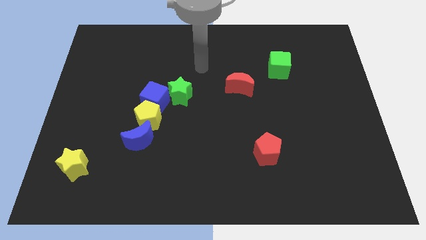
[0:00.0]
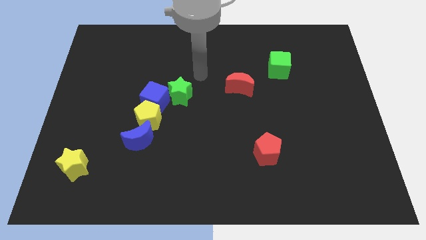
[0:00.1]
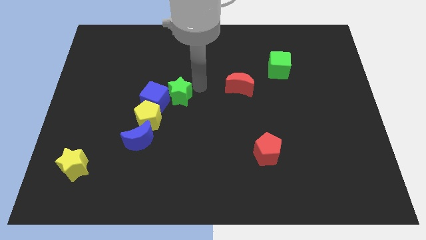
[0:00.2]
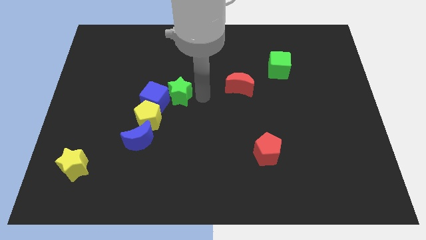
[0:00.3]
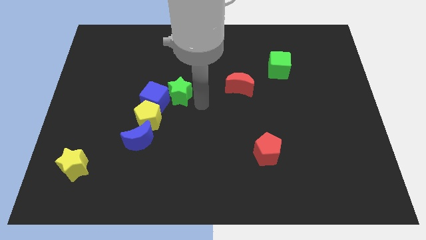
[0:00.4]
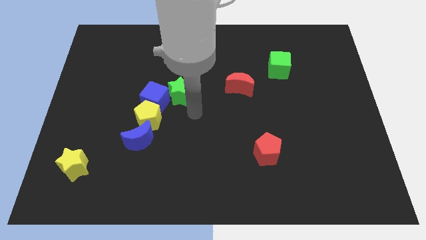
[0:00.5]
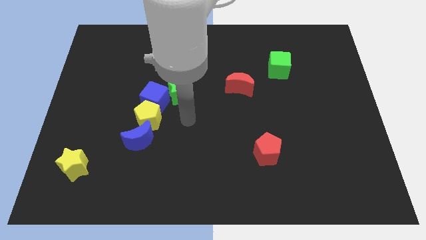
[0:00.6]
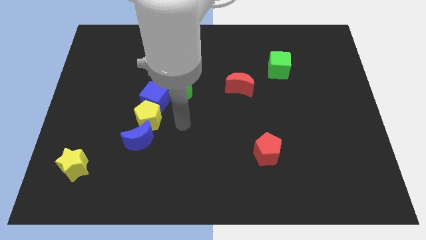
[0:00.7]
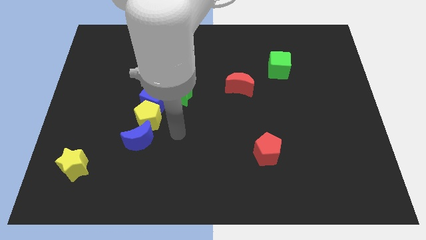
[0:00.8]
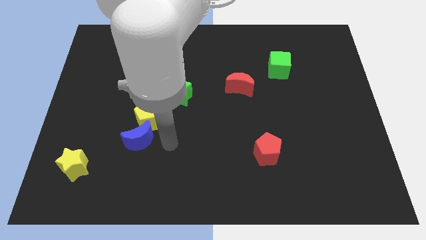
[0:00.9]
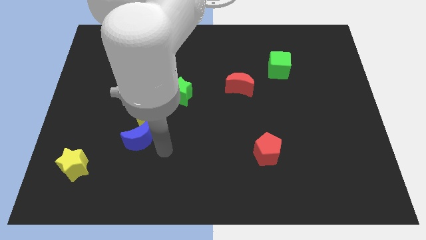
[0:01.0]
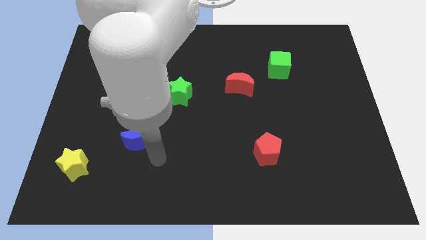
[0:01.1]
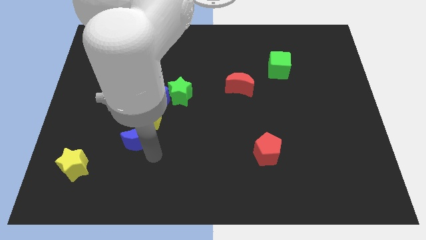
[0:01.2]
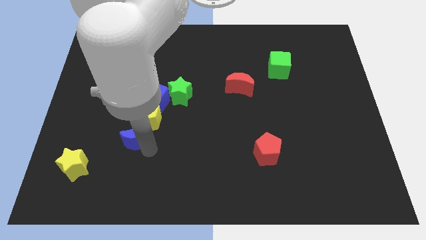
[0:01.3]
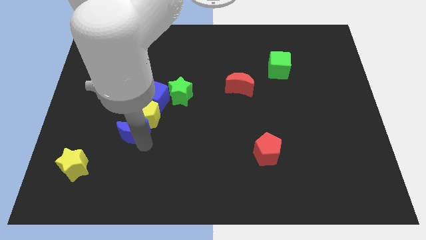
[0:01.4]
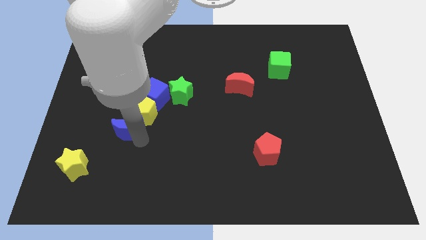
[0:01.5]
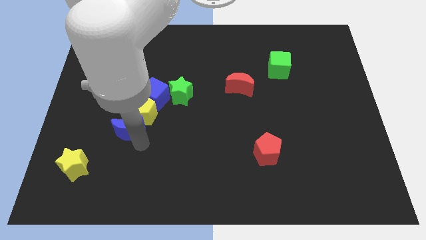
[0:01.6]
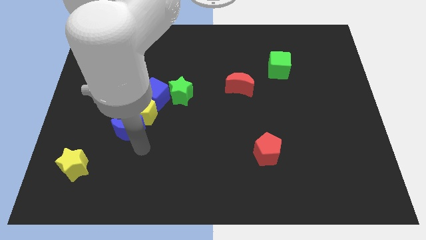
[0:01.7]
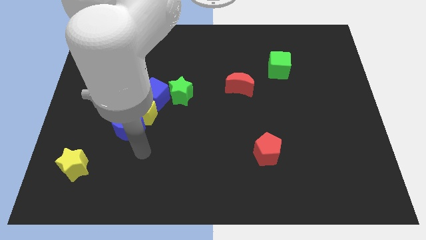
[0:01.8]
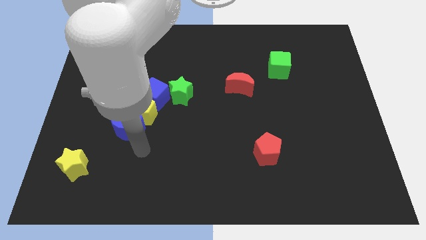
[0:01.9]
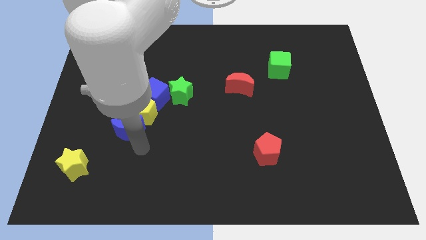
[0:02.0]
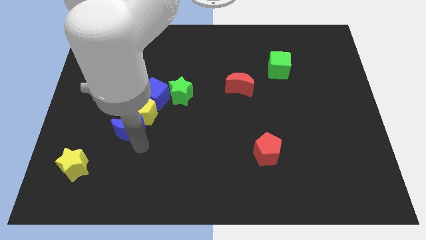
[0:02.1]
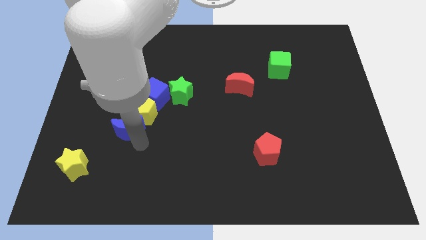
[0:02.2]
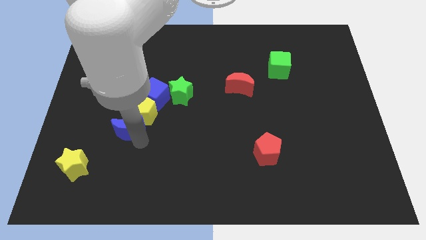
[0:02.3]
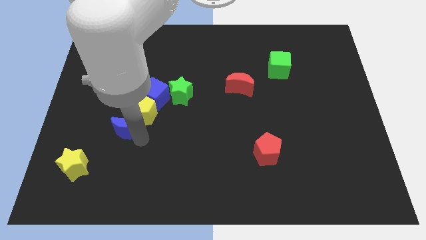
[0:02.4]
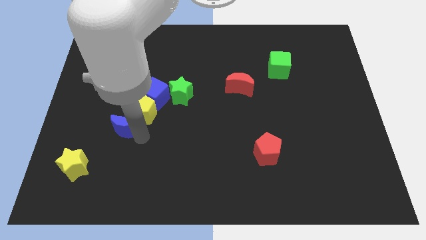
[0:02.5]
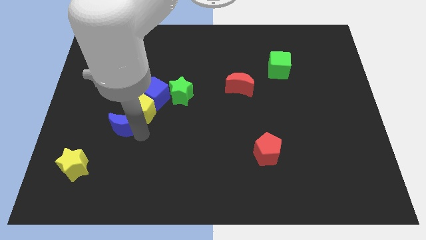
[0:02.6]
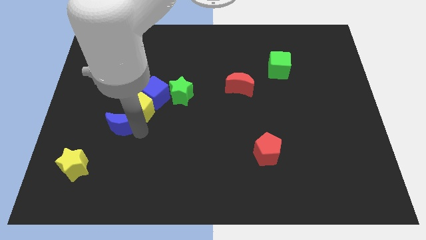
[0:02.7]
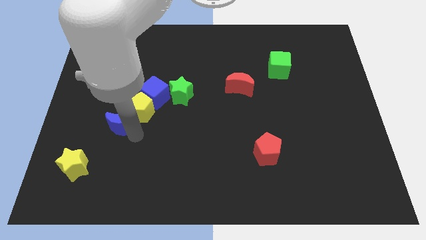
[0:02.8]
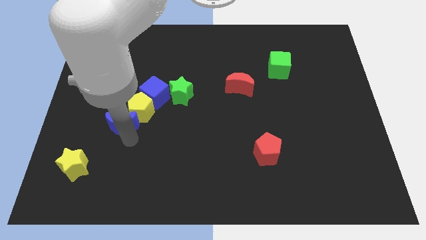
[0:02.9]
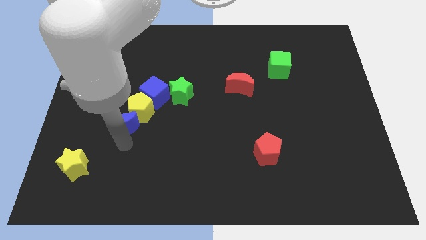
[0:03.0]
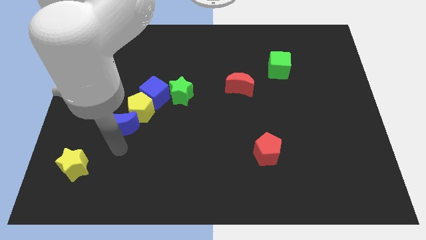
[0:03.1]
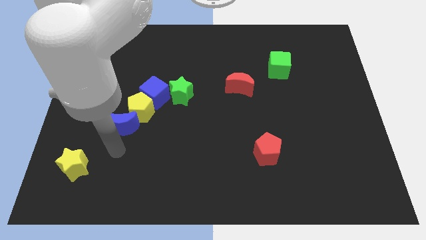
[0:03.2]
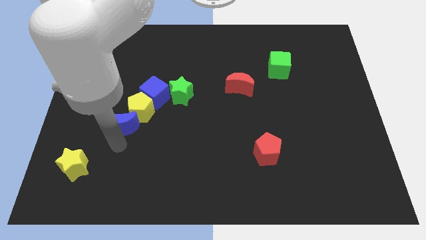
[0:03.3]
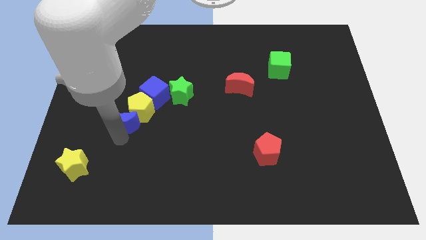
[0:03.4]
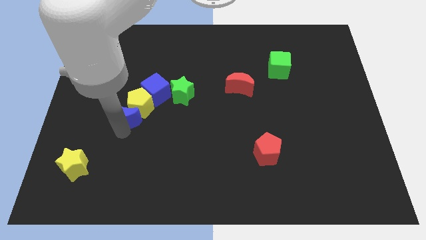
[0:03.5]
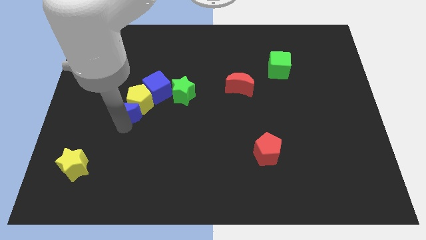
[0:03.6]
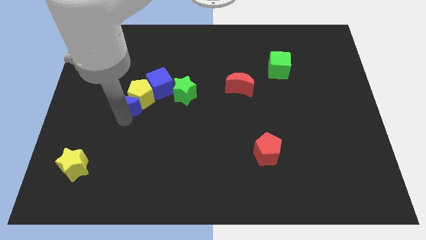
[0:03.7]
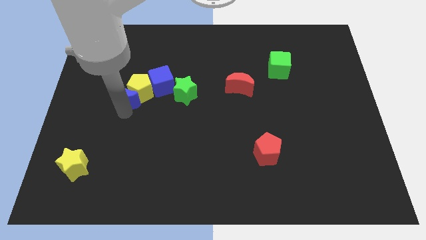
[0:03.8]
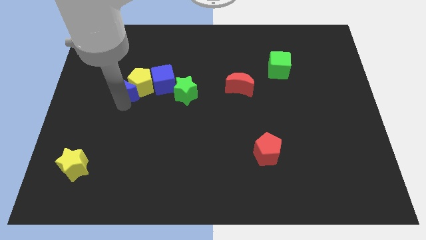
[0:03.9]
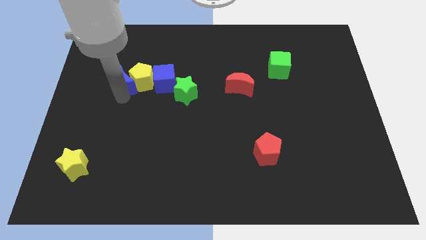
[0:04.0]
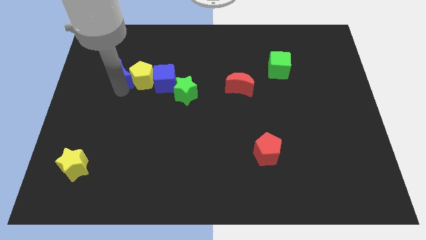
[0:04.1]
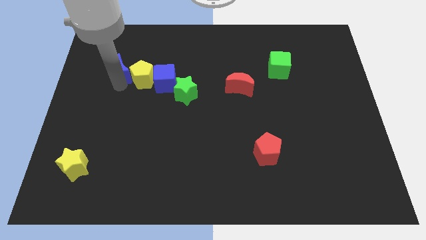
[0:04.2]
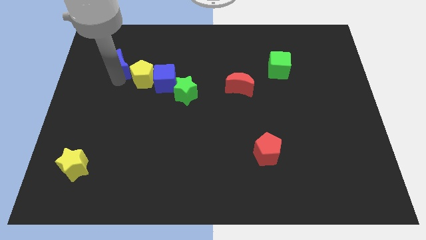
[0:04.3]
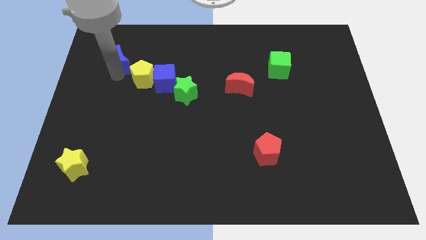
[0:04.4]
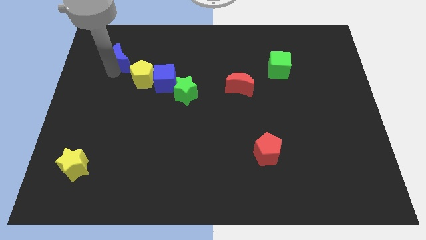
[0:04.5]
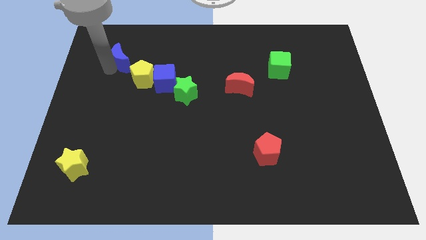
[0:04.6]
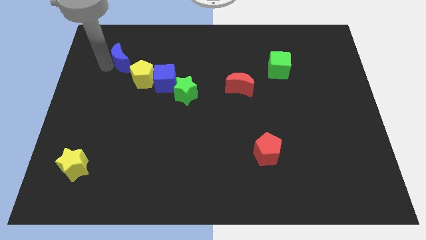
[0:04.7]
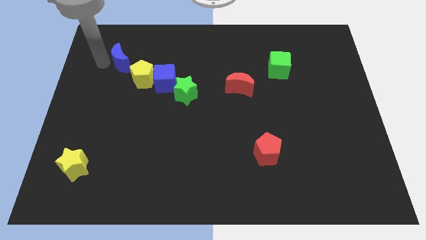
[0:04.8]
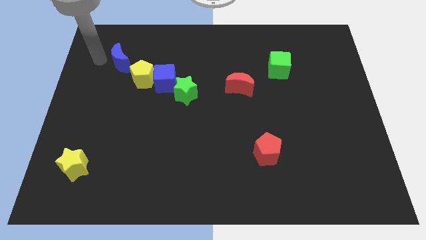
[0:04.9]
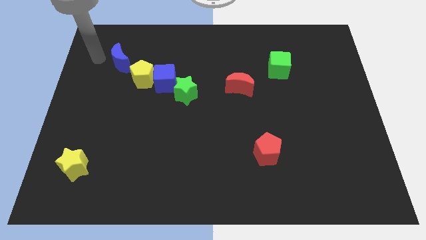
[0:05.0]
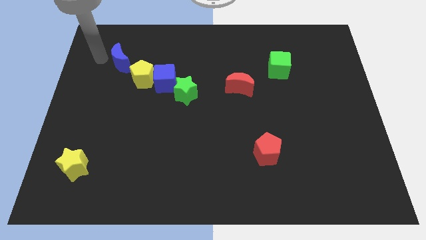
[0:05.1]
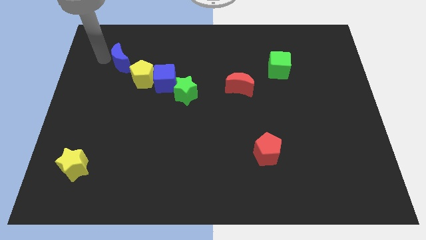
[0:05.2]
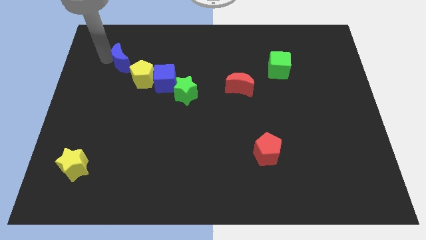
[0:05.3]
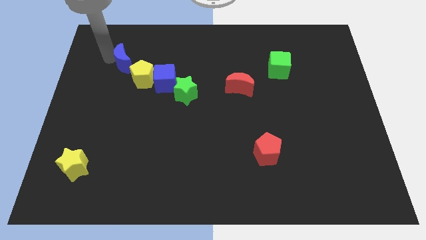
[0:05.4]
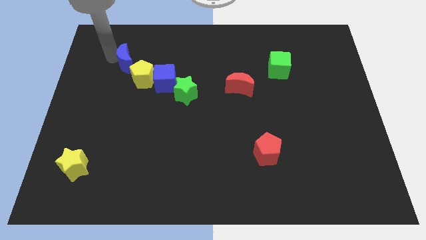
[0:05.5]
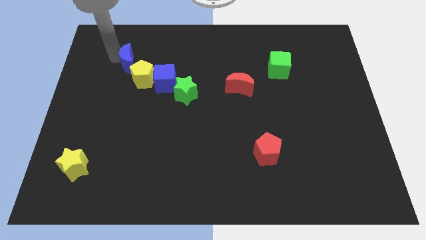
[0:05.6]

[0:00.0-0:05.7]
move the blue moon to the top left of the blue cube

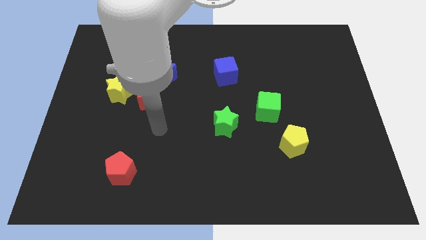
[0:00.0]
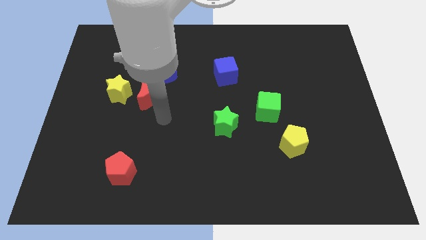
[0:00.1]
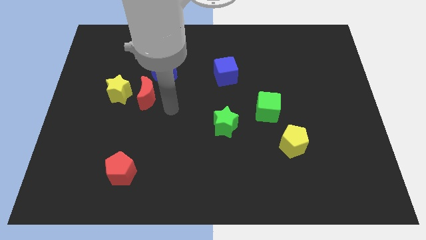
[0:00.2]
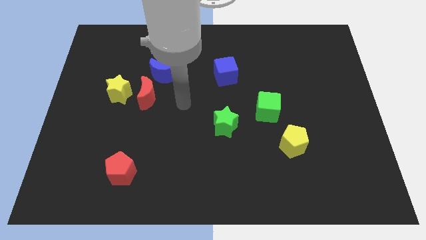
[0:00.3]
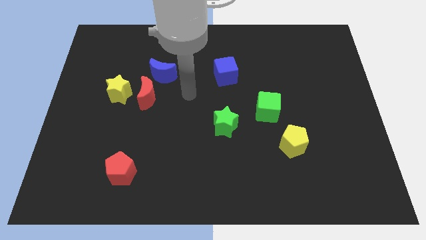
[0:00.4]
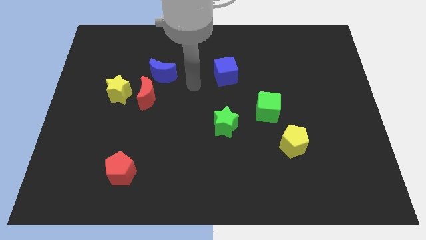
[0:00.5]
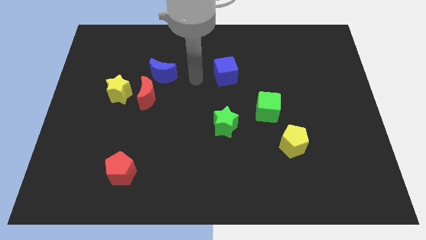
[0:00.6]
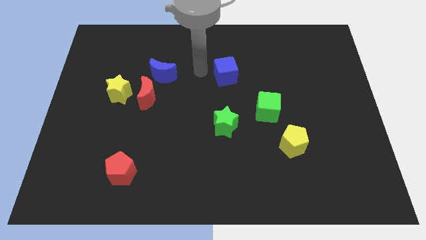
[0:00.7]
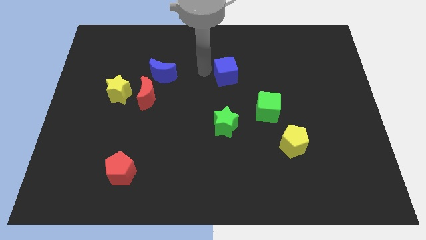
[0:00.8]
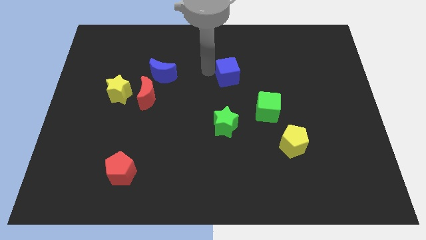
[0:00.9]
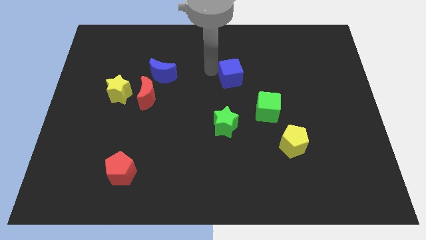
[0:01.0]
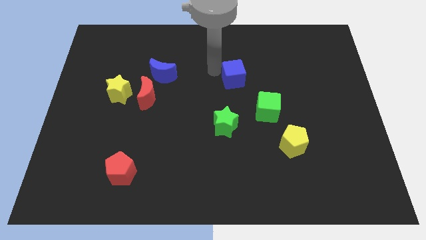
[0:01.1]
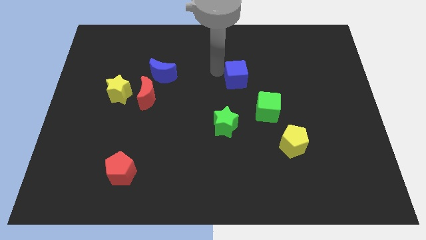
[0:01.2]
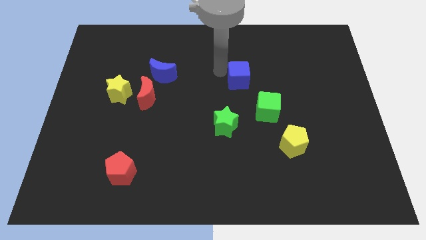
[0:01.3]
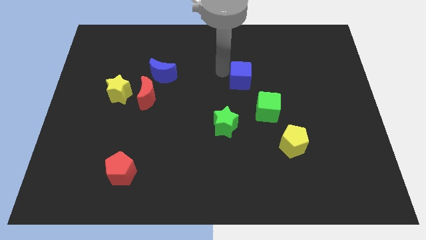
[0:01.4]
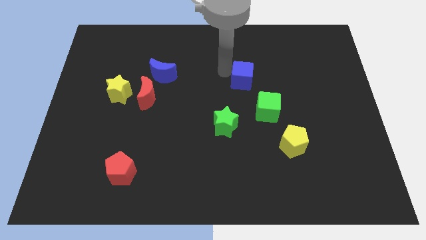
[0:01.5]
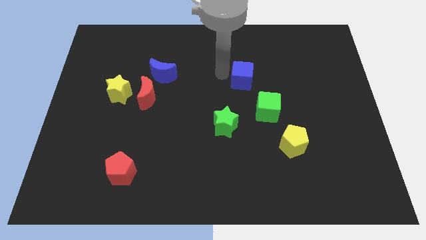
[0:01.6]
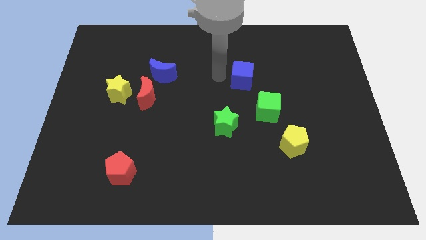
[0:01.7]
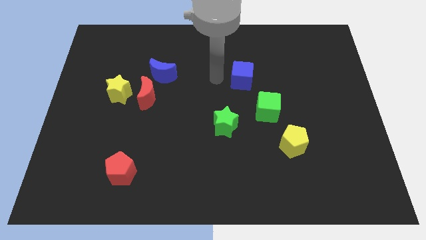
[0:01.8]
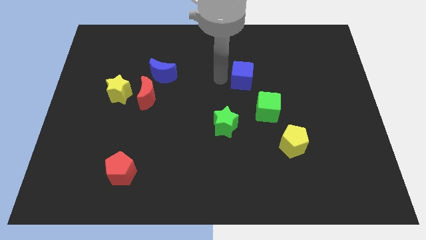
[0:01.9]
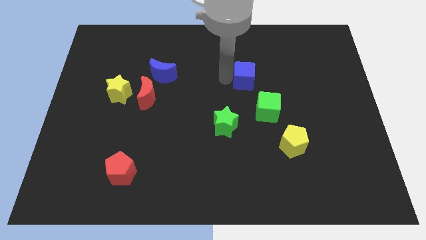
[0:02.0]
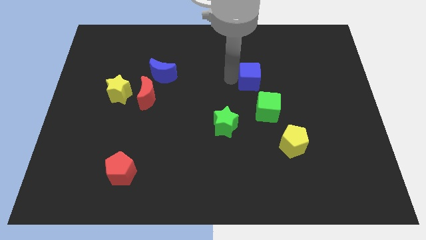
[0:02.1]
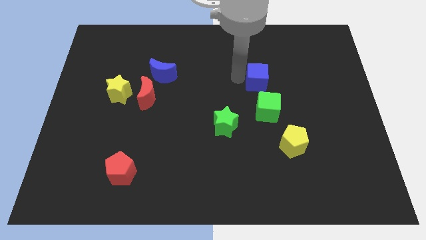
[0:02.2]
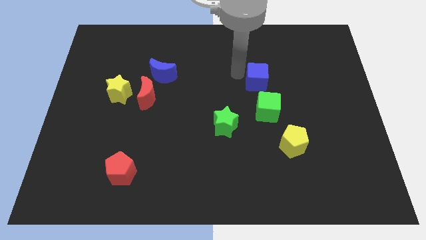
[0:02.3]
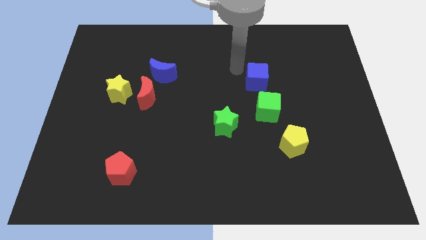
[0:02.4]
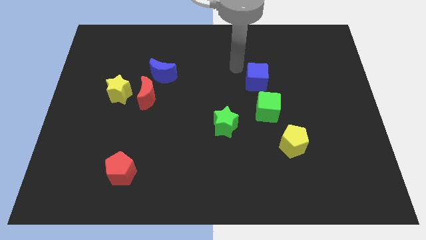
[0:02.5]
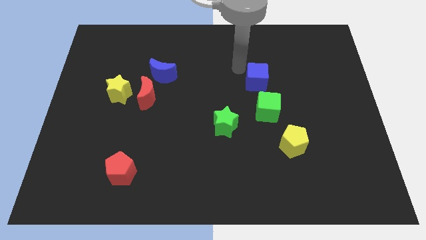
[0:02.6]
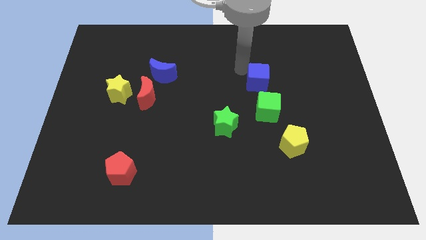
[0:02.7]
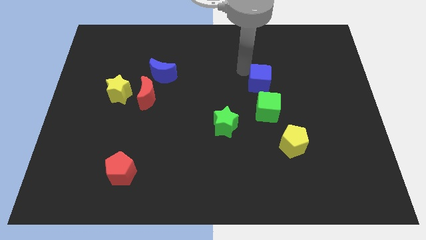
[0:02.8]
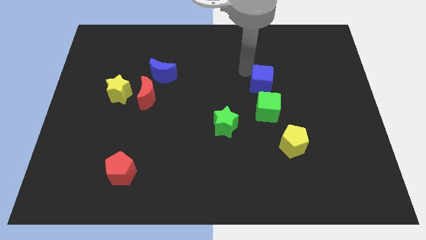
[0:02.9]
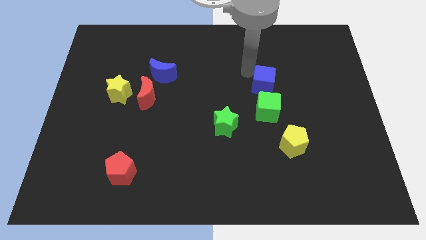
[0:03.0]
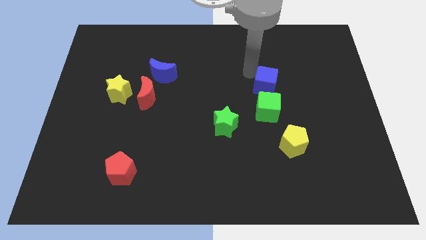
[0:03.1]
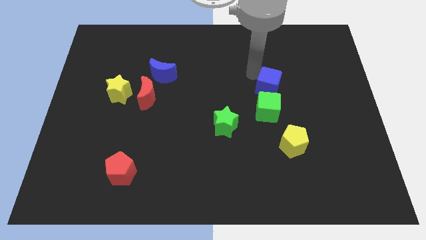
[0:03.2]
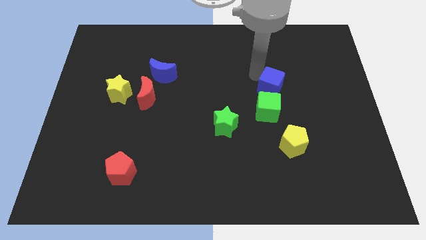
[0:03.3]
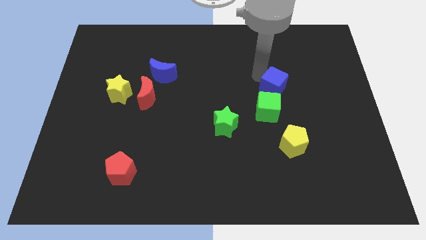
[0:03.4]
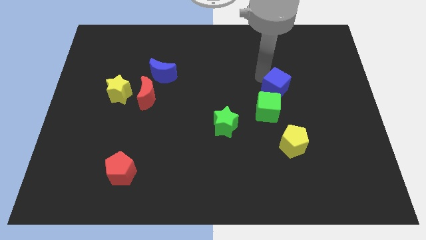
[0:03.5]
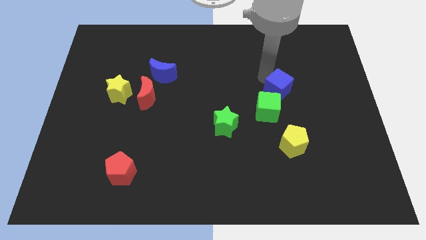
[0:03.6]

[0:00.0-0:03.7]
put the blue cube above the yellow pentagon
